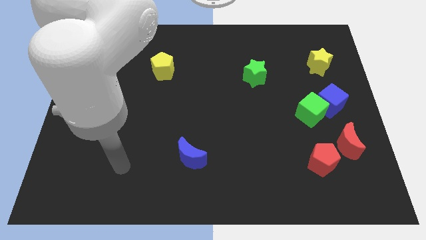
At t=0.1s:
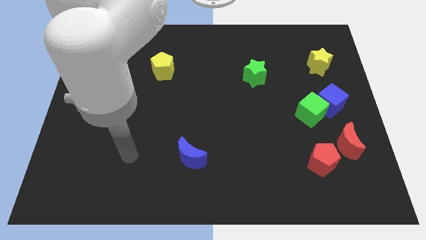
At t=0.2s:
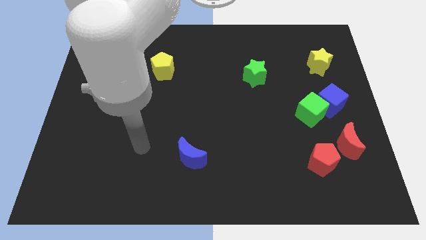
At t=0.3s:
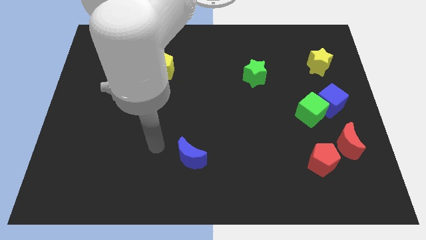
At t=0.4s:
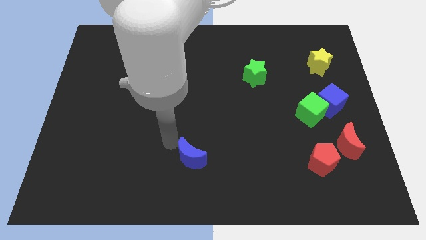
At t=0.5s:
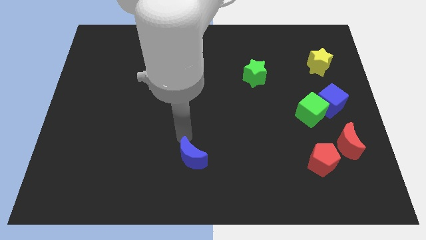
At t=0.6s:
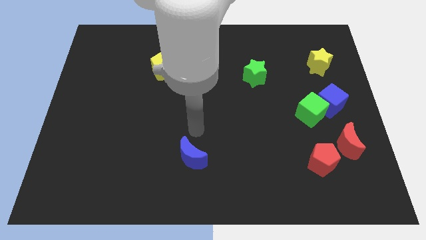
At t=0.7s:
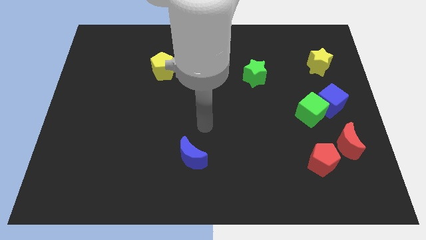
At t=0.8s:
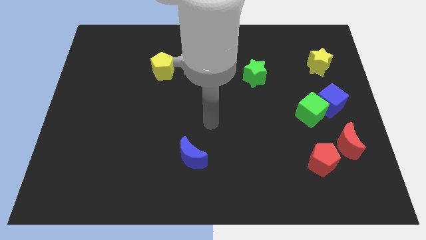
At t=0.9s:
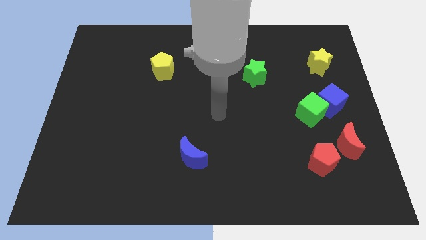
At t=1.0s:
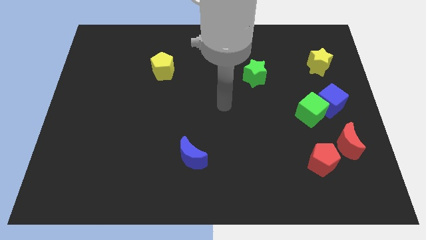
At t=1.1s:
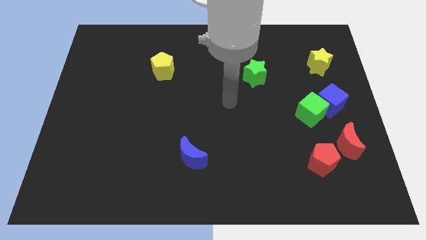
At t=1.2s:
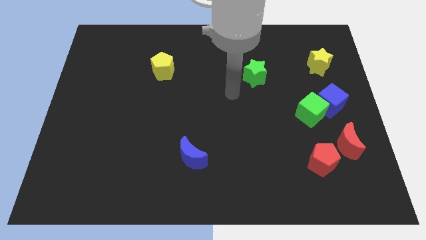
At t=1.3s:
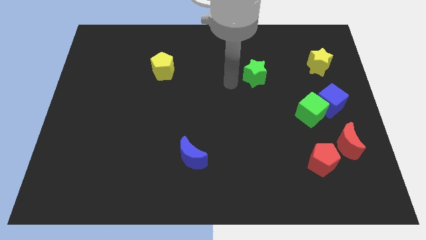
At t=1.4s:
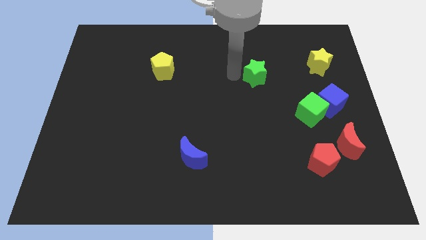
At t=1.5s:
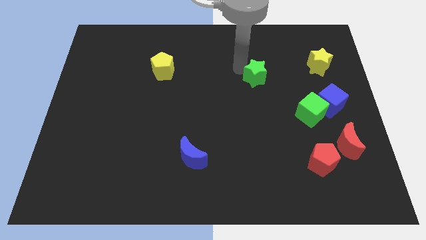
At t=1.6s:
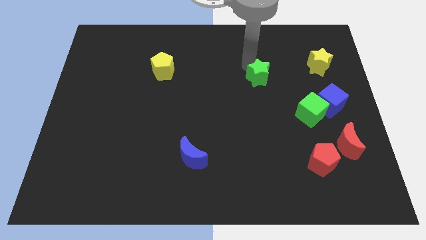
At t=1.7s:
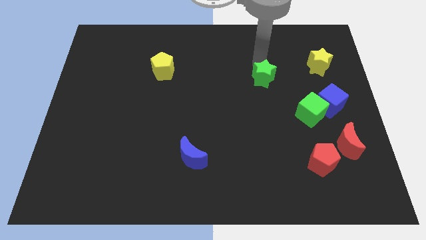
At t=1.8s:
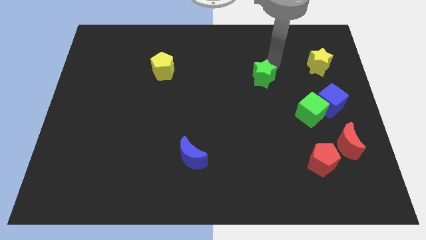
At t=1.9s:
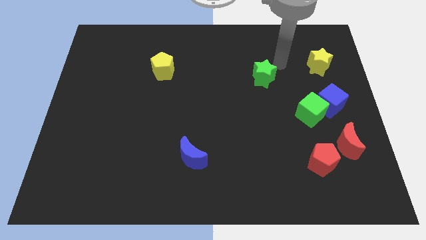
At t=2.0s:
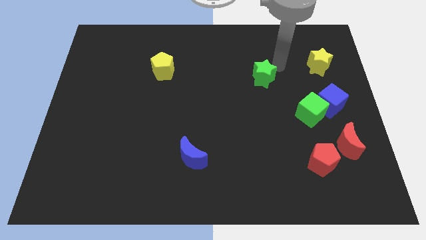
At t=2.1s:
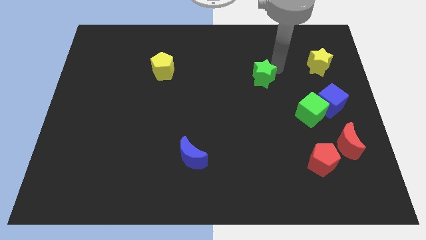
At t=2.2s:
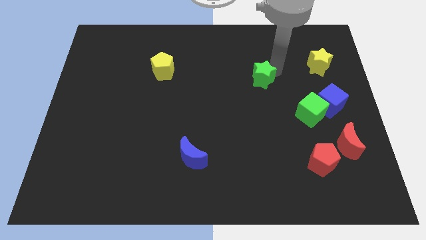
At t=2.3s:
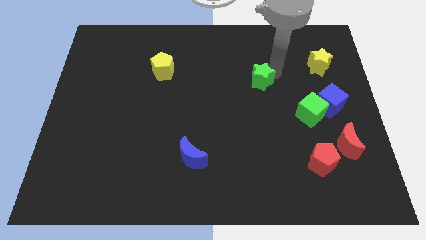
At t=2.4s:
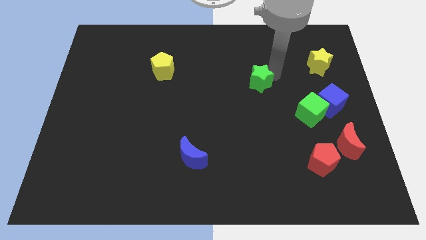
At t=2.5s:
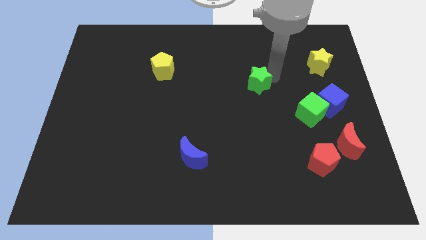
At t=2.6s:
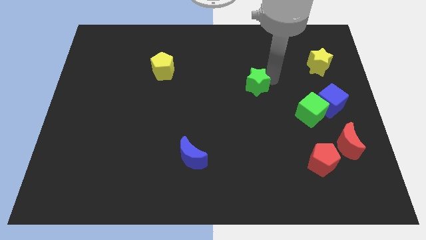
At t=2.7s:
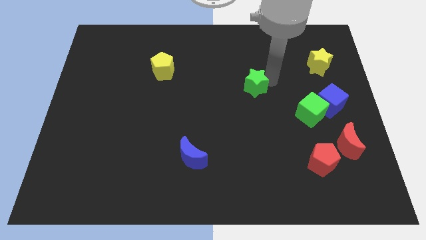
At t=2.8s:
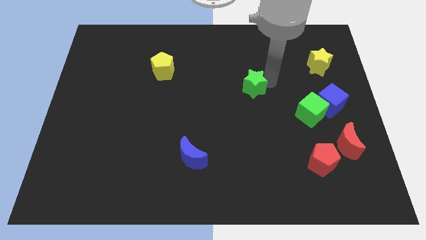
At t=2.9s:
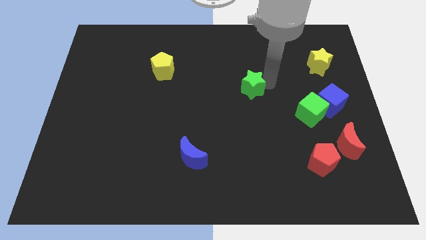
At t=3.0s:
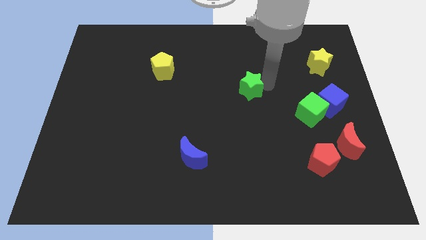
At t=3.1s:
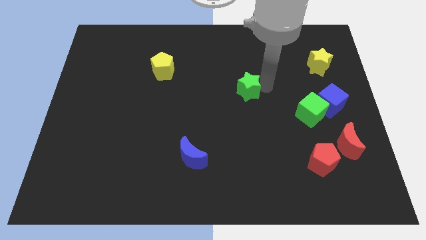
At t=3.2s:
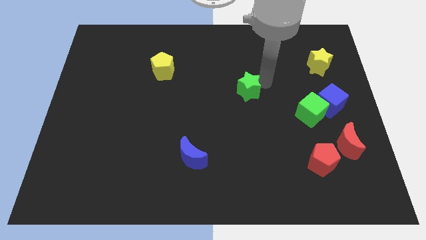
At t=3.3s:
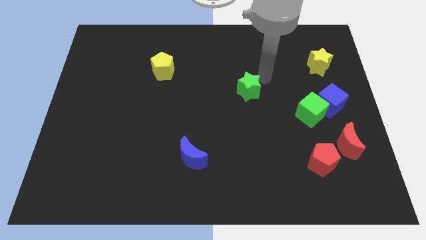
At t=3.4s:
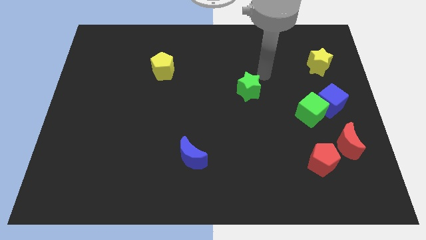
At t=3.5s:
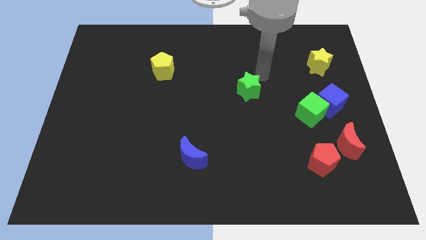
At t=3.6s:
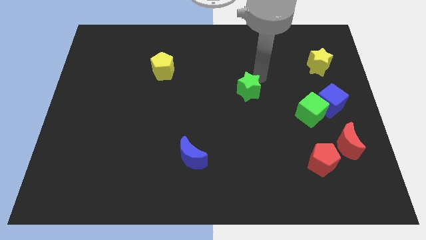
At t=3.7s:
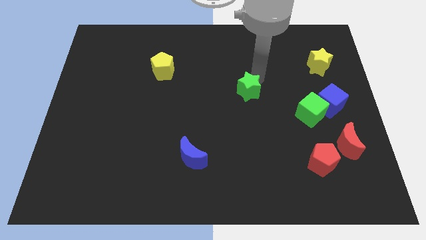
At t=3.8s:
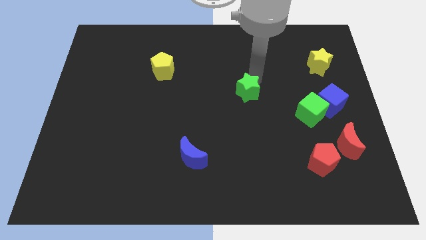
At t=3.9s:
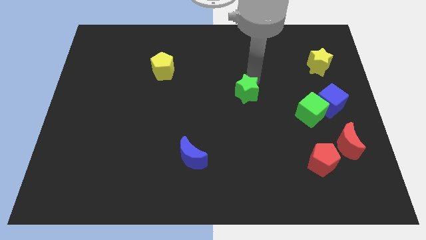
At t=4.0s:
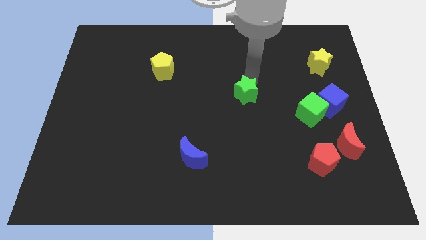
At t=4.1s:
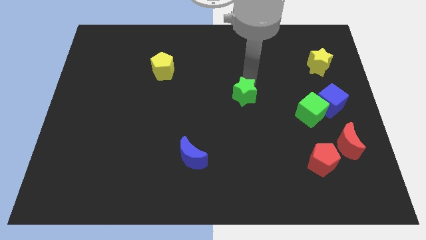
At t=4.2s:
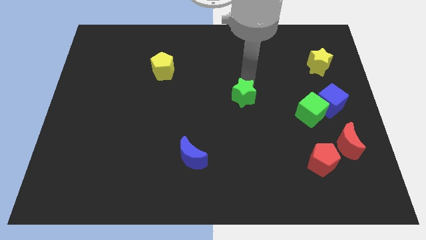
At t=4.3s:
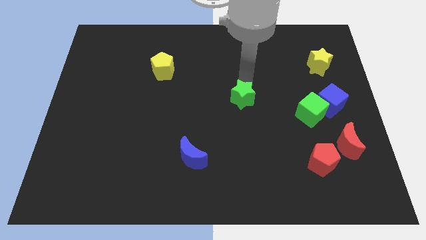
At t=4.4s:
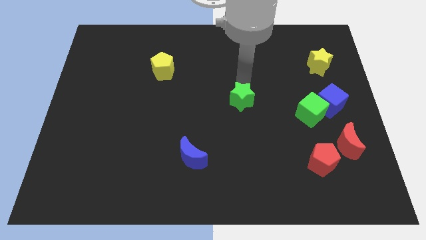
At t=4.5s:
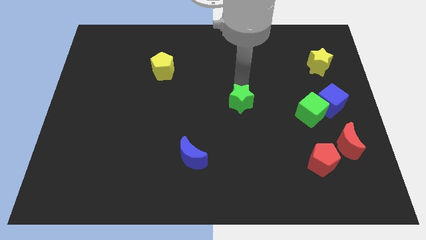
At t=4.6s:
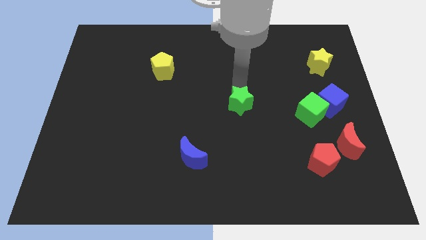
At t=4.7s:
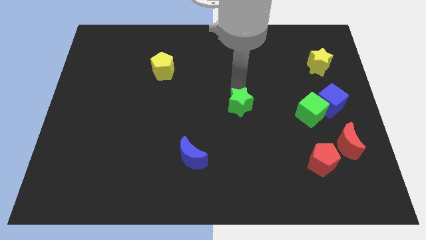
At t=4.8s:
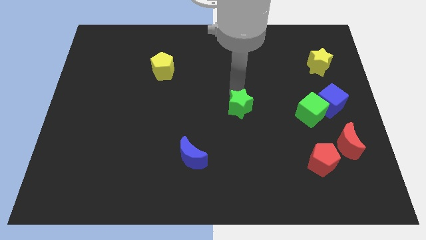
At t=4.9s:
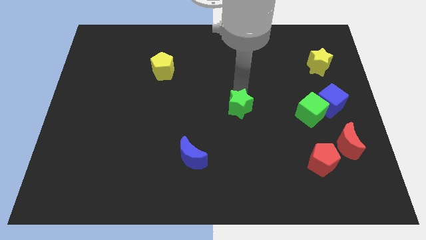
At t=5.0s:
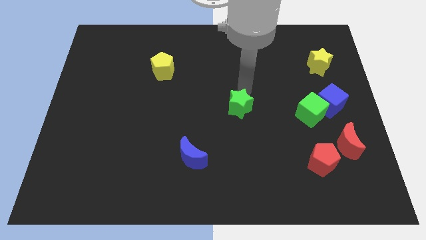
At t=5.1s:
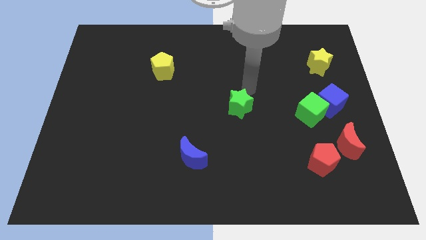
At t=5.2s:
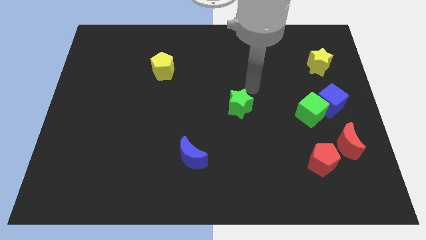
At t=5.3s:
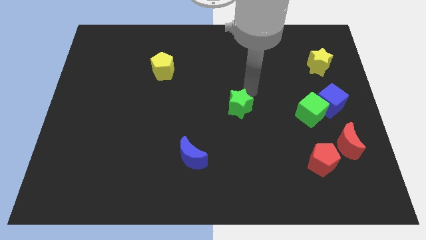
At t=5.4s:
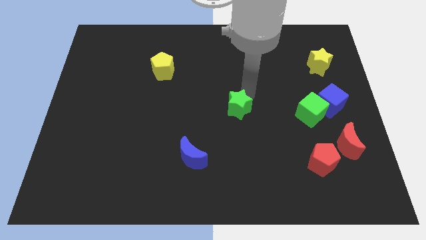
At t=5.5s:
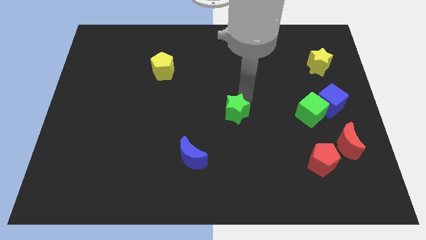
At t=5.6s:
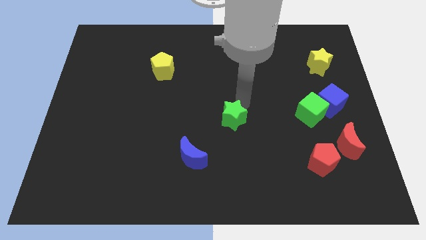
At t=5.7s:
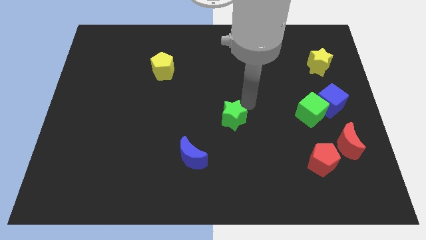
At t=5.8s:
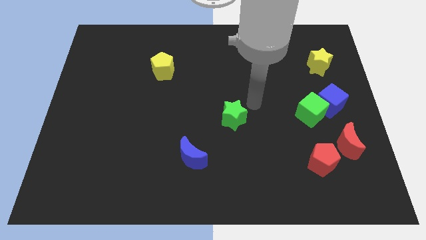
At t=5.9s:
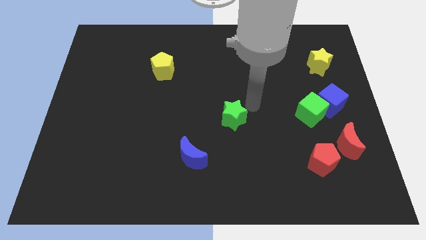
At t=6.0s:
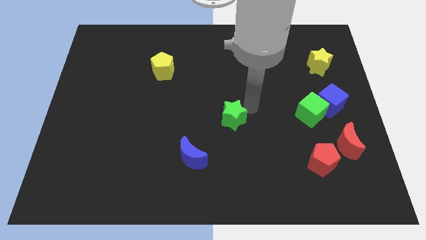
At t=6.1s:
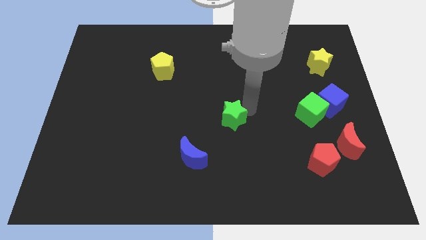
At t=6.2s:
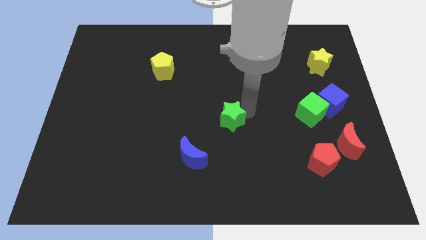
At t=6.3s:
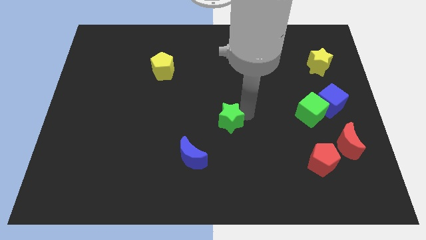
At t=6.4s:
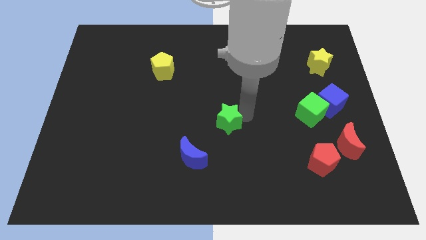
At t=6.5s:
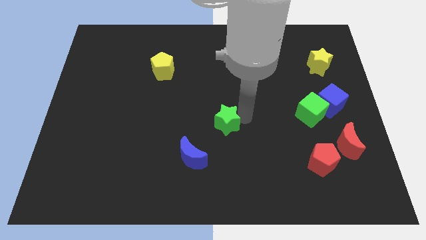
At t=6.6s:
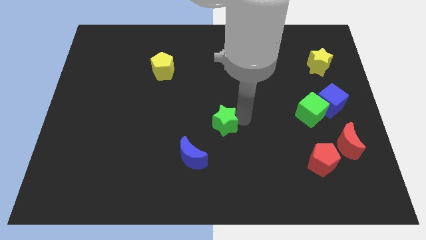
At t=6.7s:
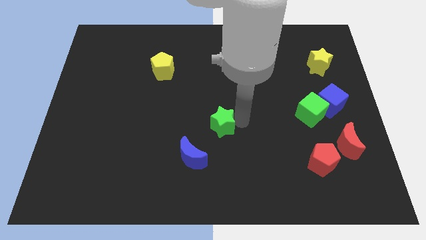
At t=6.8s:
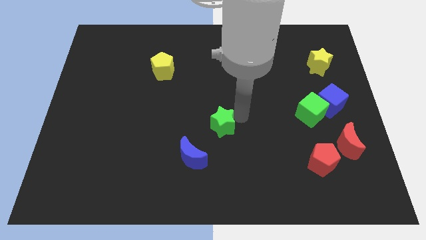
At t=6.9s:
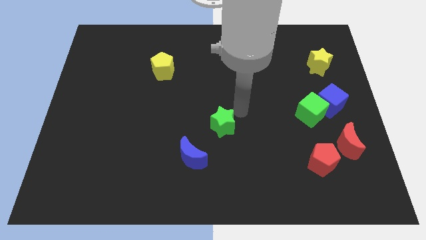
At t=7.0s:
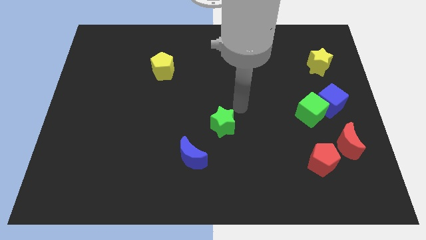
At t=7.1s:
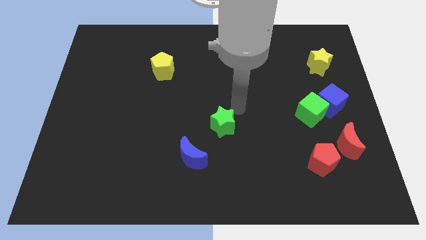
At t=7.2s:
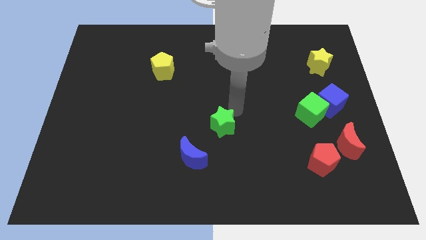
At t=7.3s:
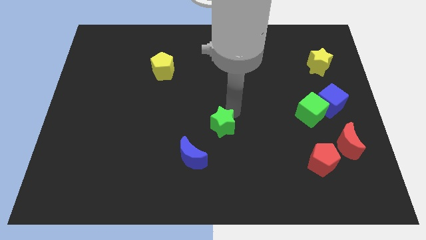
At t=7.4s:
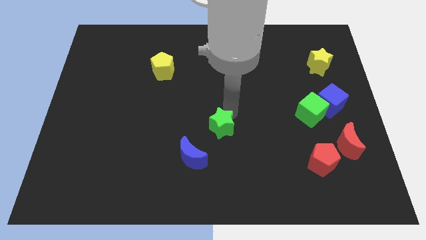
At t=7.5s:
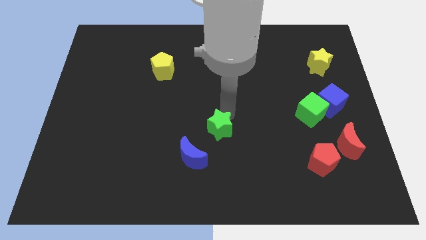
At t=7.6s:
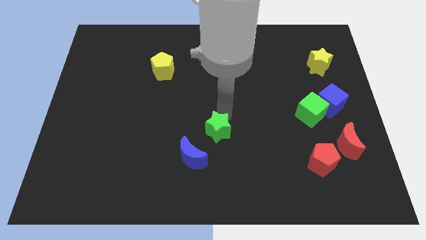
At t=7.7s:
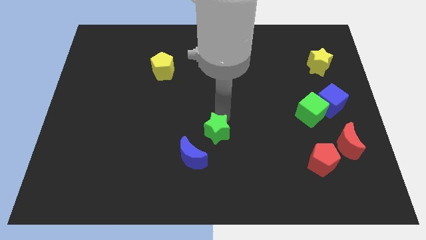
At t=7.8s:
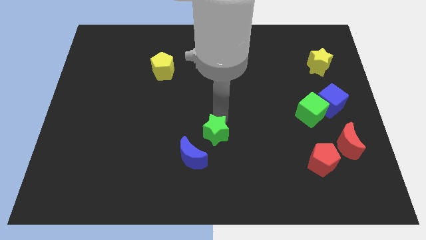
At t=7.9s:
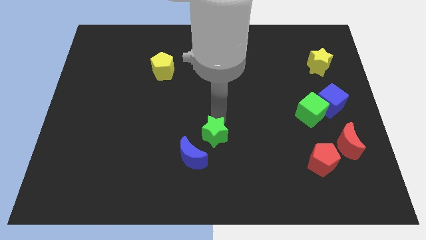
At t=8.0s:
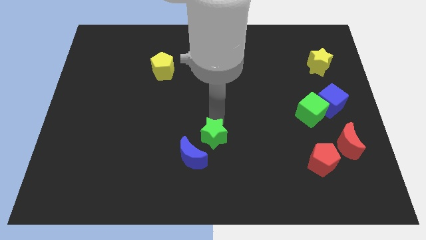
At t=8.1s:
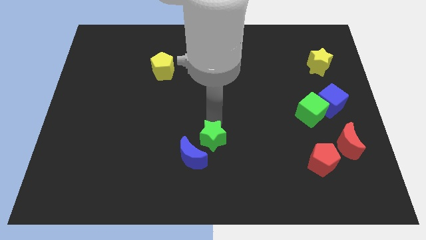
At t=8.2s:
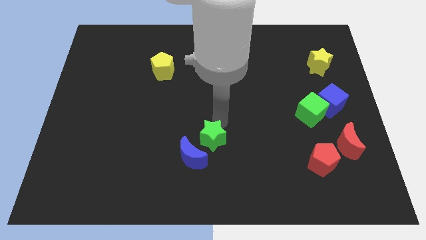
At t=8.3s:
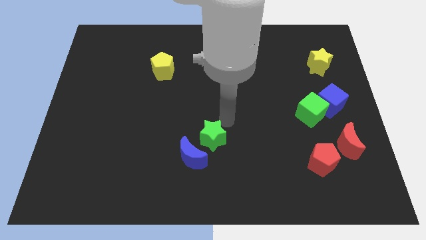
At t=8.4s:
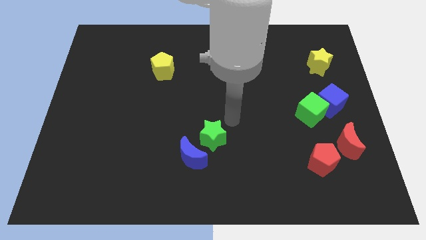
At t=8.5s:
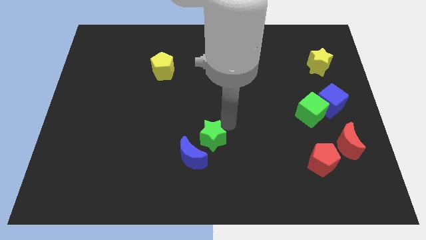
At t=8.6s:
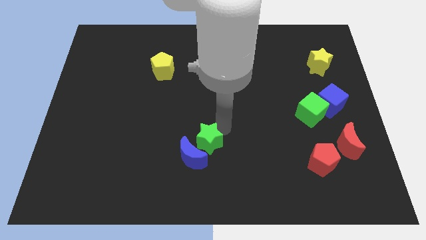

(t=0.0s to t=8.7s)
slide the green star close to the blue moon
